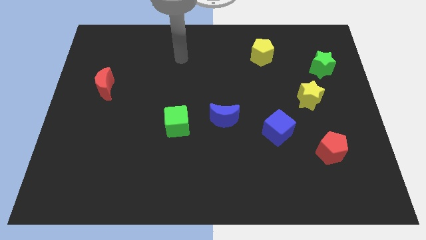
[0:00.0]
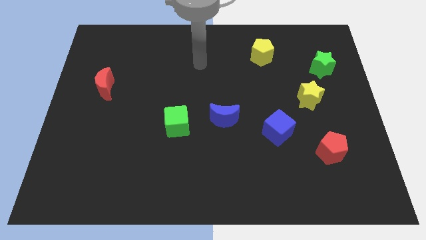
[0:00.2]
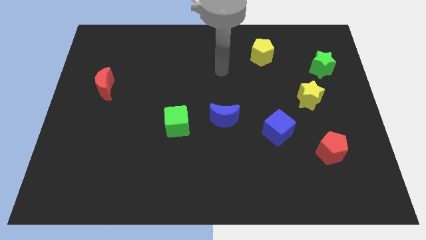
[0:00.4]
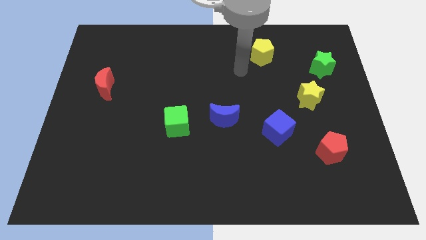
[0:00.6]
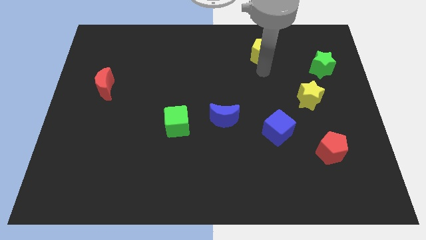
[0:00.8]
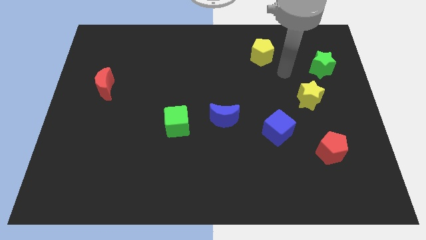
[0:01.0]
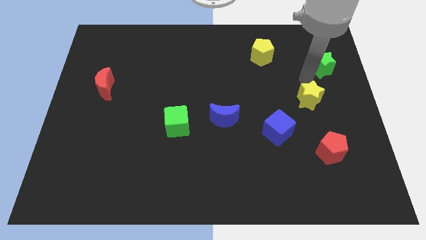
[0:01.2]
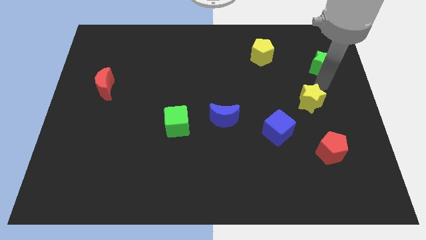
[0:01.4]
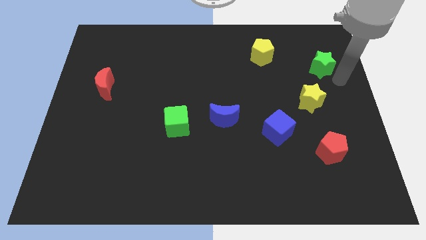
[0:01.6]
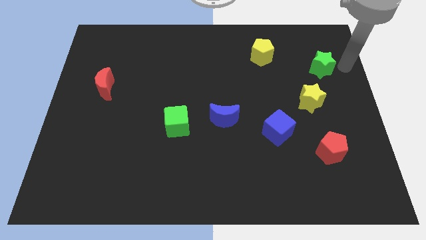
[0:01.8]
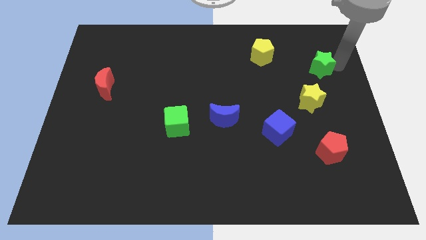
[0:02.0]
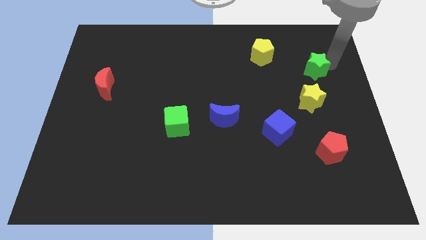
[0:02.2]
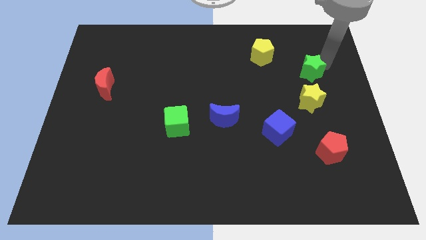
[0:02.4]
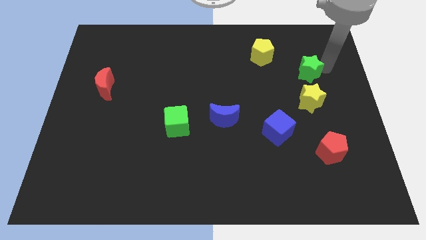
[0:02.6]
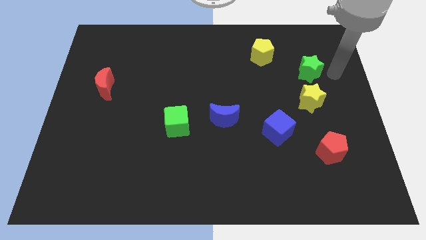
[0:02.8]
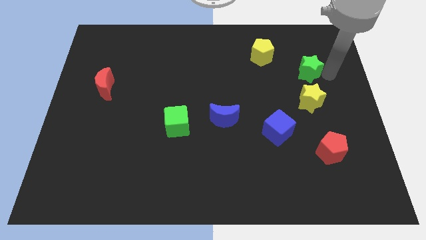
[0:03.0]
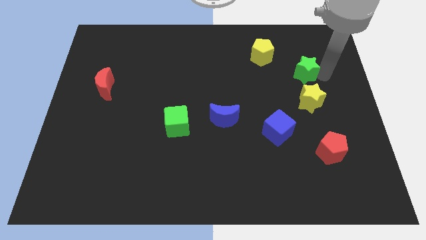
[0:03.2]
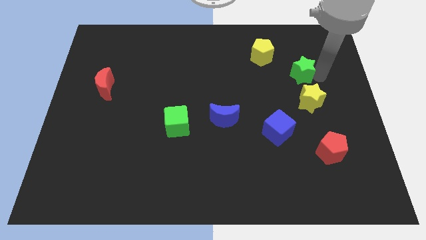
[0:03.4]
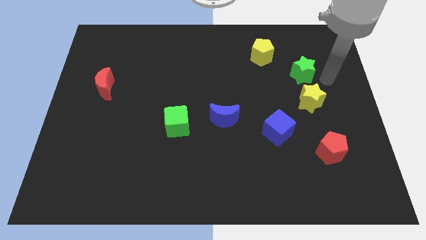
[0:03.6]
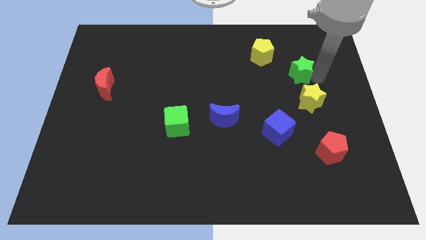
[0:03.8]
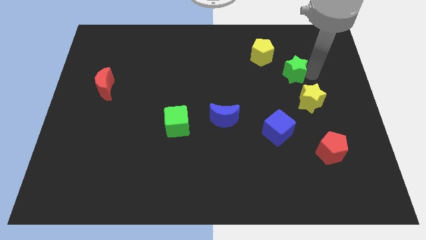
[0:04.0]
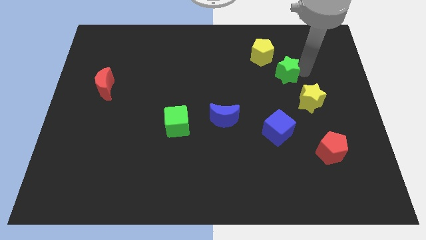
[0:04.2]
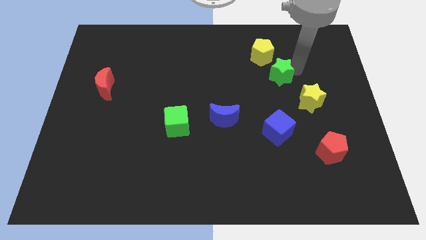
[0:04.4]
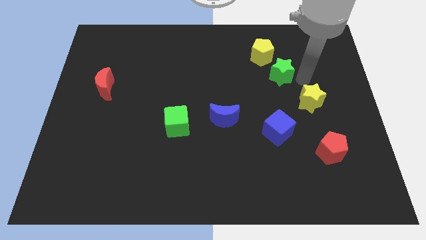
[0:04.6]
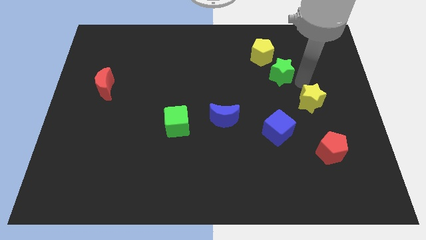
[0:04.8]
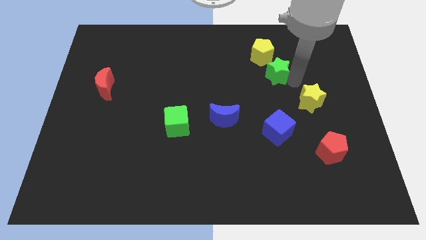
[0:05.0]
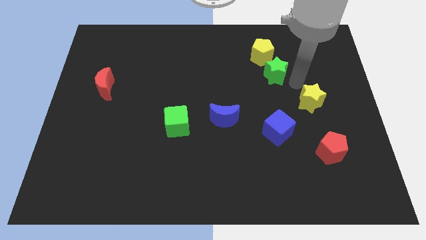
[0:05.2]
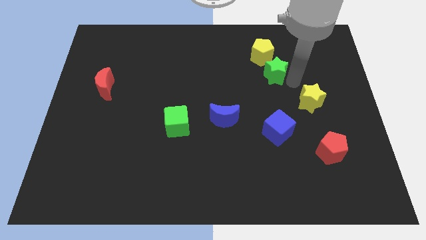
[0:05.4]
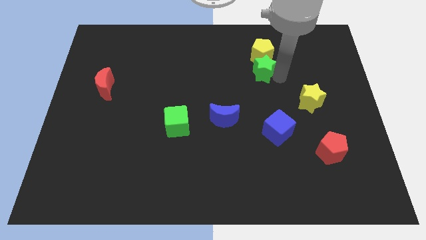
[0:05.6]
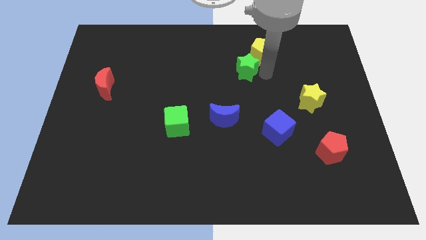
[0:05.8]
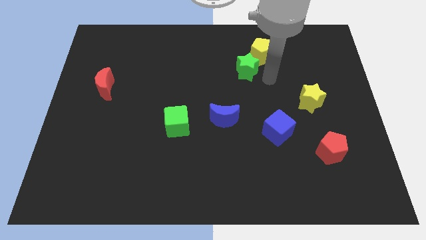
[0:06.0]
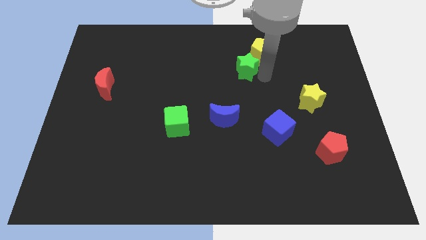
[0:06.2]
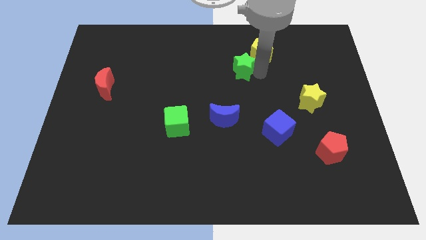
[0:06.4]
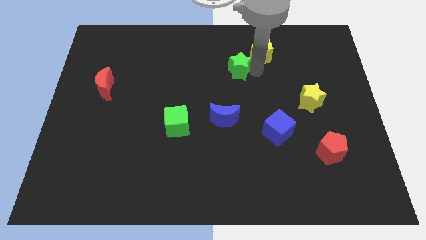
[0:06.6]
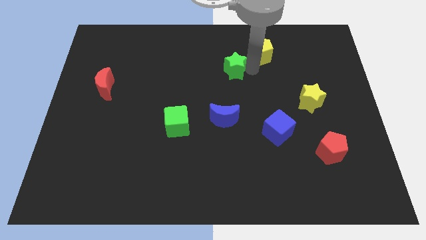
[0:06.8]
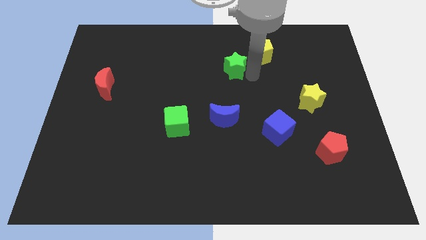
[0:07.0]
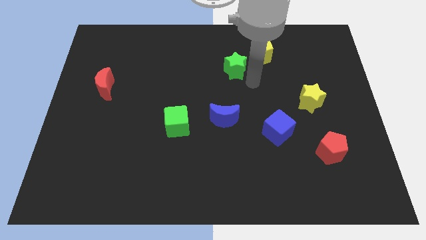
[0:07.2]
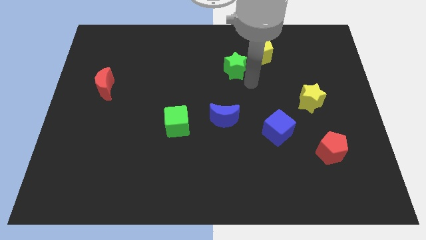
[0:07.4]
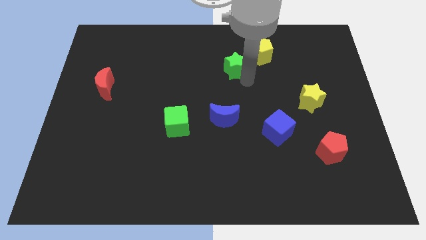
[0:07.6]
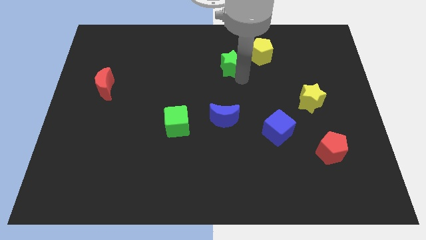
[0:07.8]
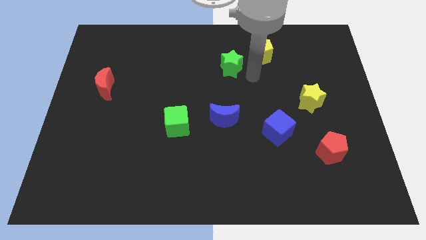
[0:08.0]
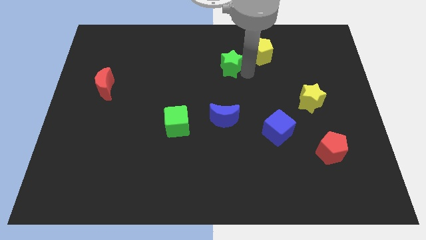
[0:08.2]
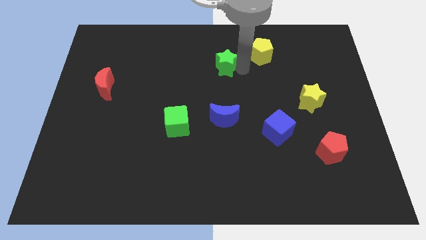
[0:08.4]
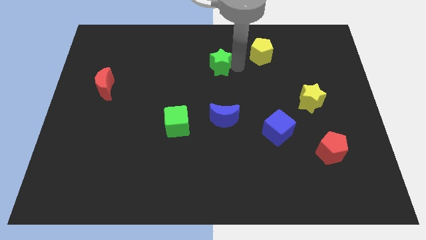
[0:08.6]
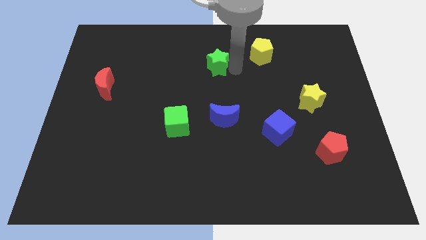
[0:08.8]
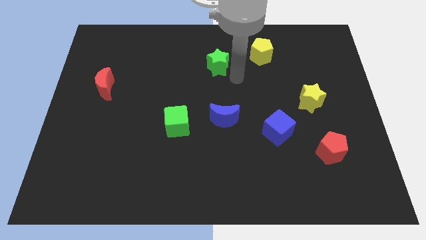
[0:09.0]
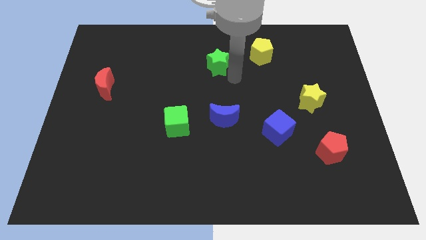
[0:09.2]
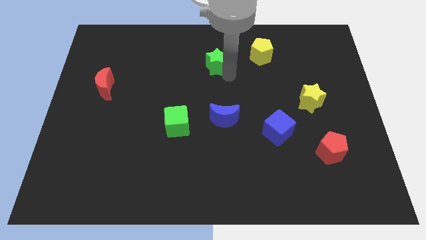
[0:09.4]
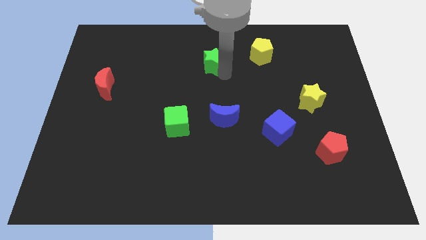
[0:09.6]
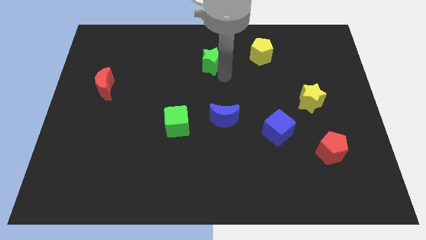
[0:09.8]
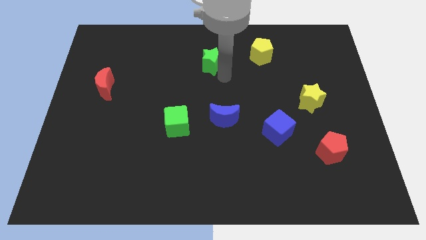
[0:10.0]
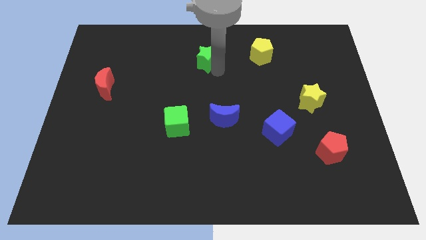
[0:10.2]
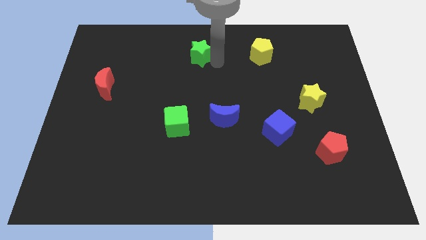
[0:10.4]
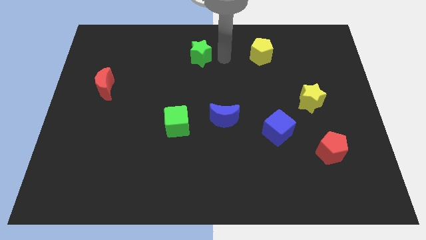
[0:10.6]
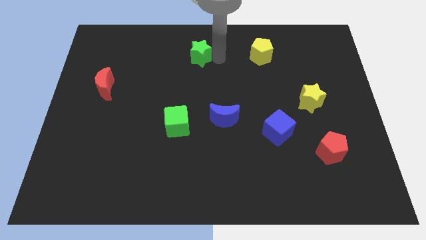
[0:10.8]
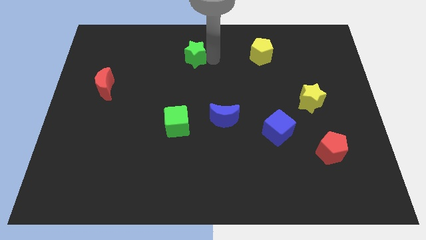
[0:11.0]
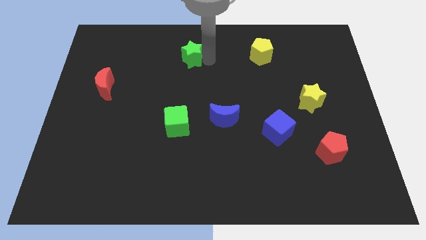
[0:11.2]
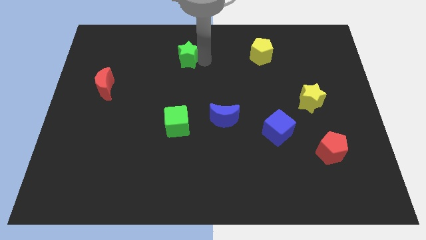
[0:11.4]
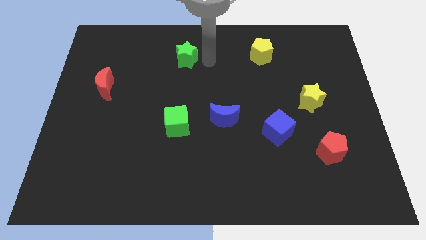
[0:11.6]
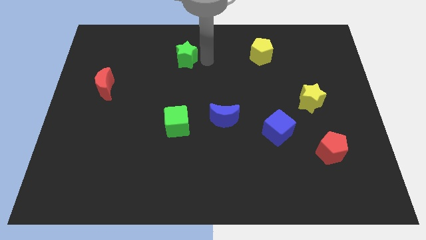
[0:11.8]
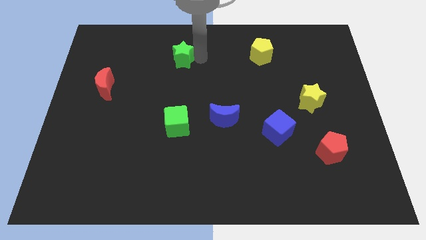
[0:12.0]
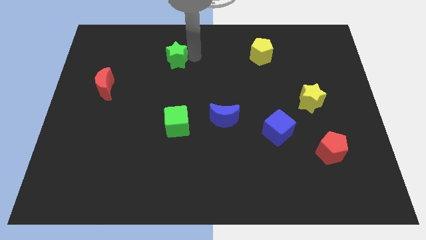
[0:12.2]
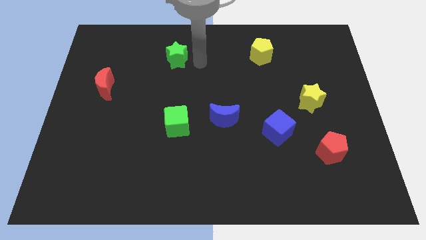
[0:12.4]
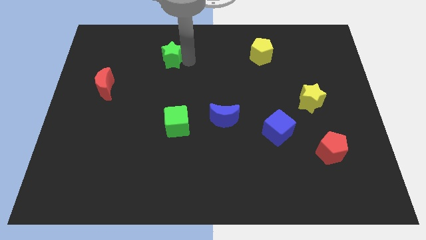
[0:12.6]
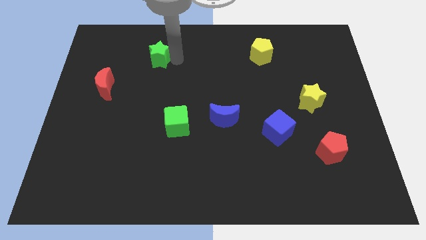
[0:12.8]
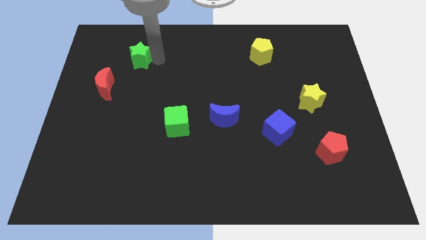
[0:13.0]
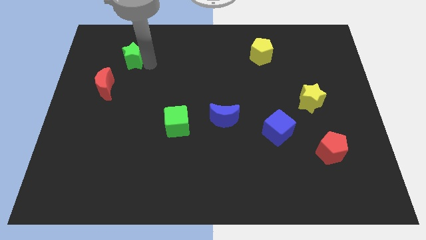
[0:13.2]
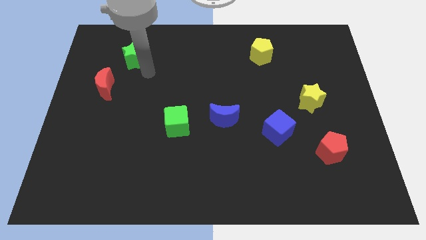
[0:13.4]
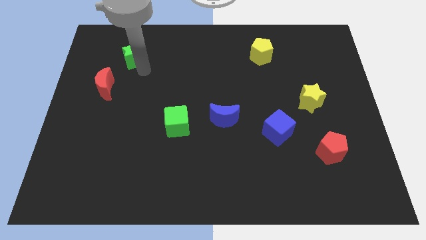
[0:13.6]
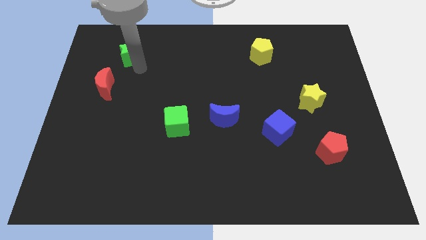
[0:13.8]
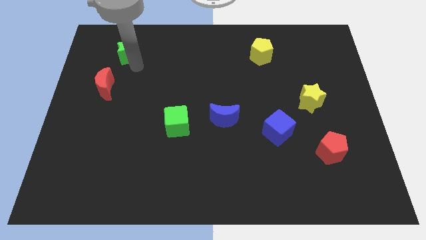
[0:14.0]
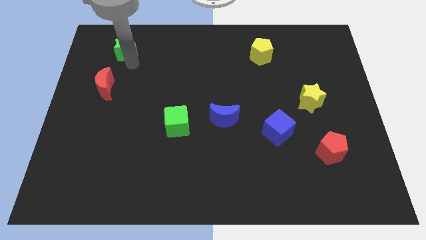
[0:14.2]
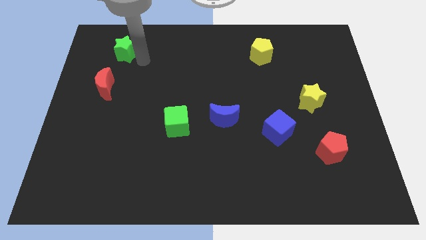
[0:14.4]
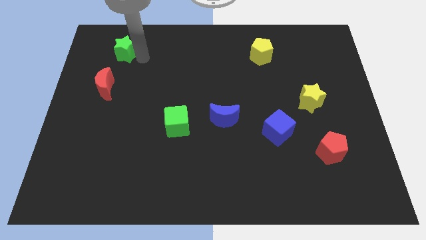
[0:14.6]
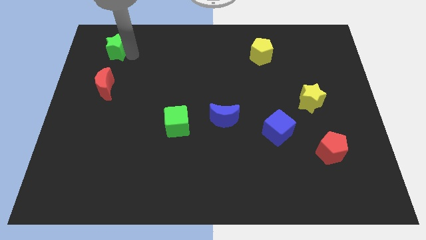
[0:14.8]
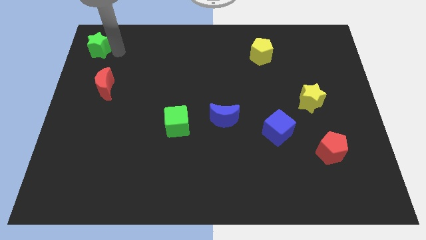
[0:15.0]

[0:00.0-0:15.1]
slide the green star to the top left of the board
